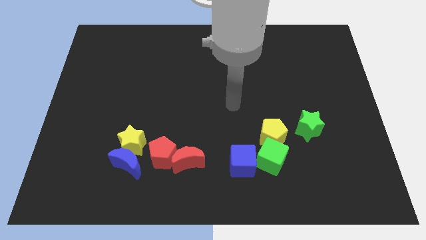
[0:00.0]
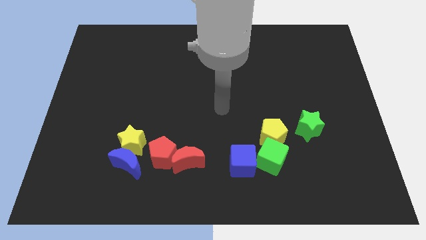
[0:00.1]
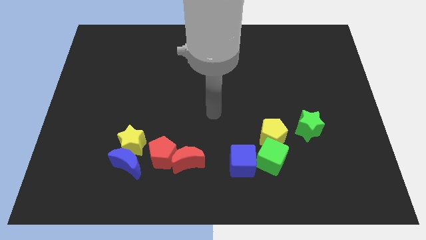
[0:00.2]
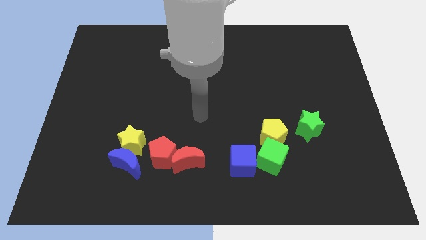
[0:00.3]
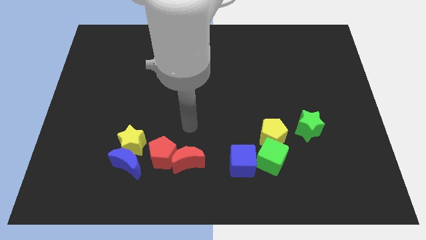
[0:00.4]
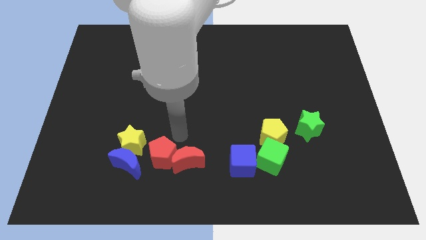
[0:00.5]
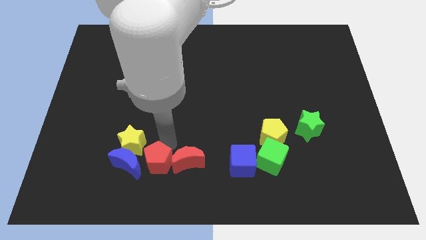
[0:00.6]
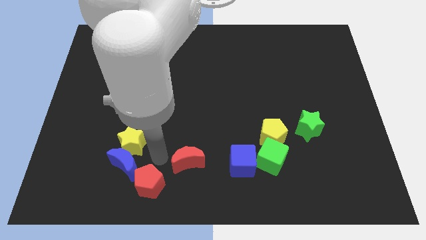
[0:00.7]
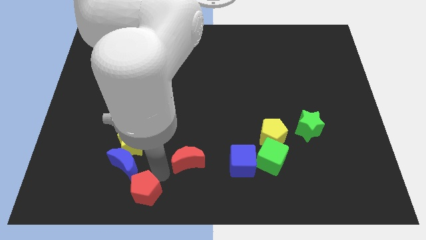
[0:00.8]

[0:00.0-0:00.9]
pull the red moon apart from the red pentagon

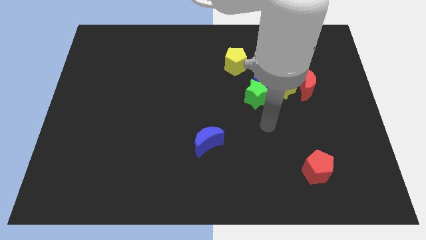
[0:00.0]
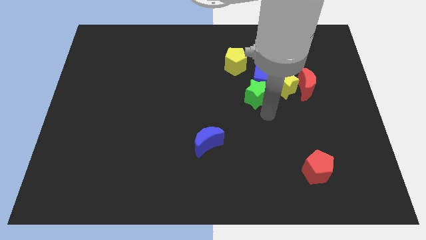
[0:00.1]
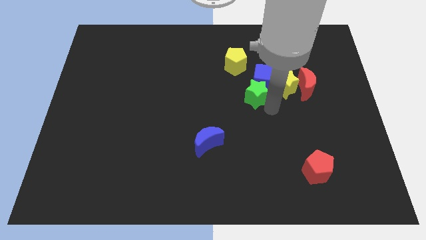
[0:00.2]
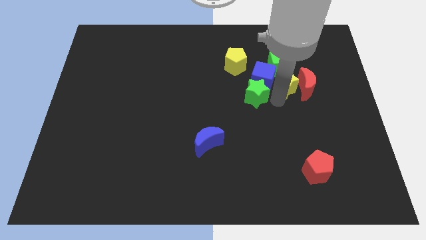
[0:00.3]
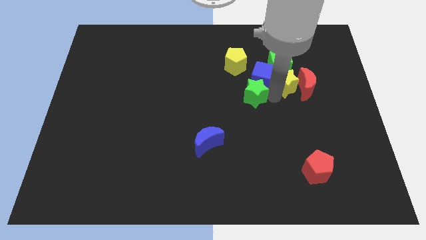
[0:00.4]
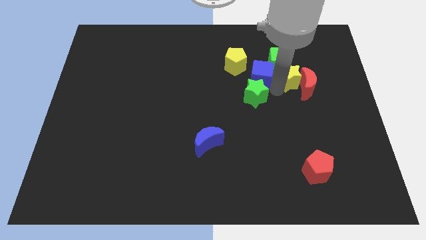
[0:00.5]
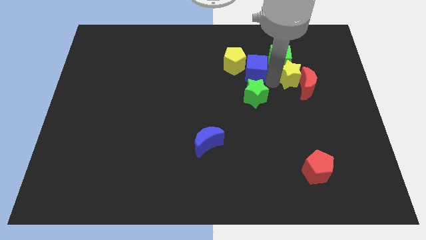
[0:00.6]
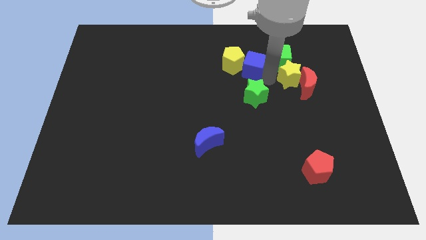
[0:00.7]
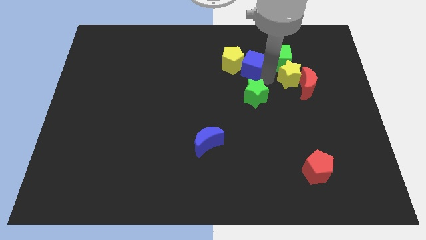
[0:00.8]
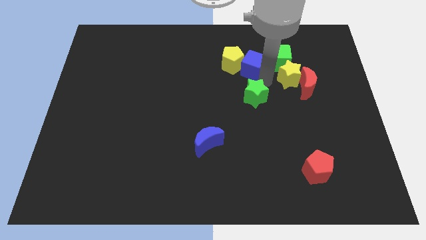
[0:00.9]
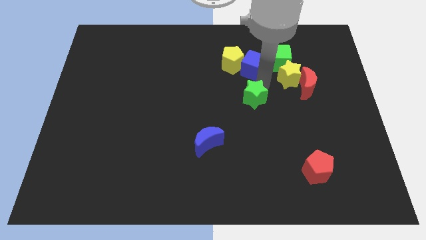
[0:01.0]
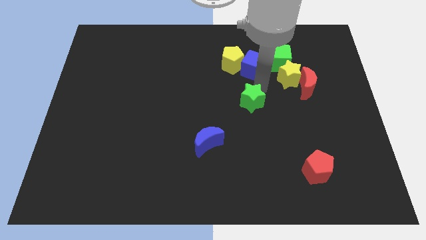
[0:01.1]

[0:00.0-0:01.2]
pull the green star apart from the blue cube and yellow star

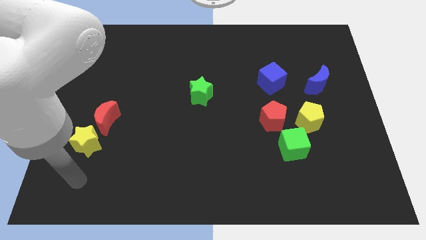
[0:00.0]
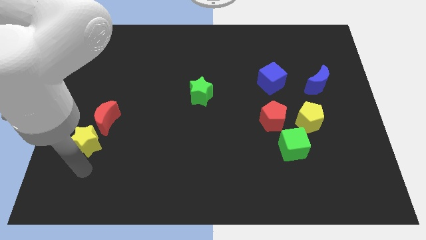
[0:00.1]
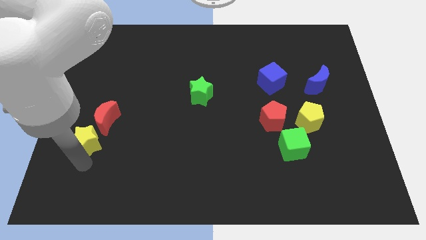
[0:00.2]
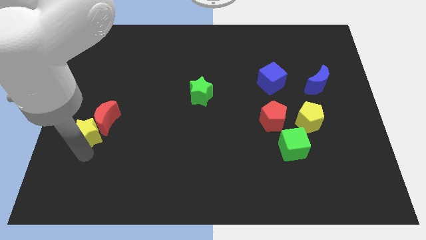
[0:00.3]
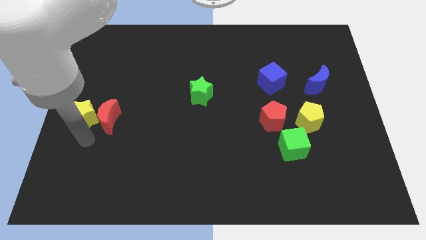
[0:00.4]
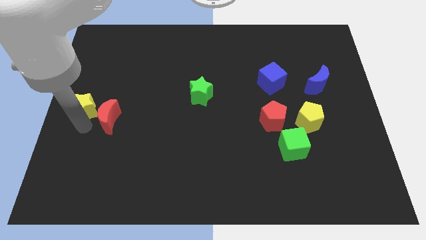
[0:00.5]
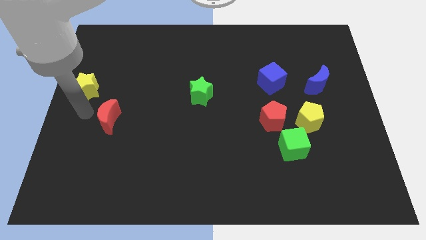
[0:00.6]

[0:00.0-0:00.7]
pull the red moon apart from the yellow star

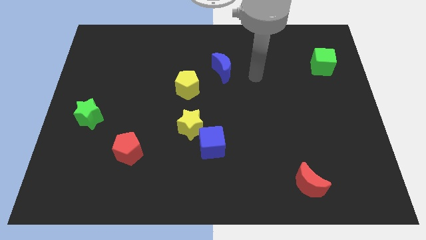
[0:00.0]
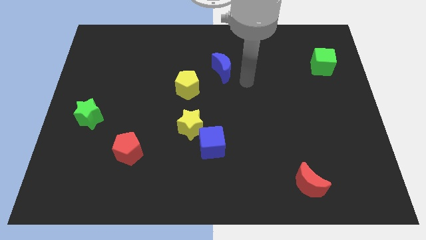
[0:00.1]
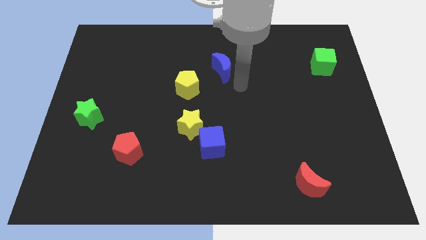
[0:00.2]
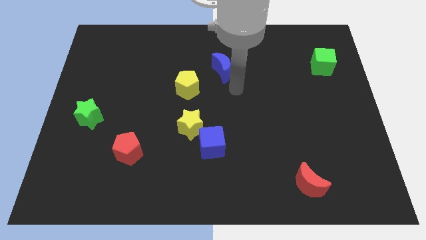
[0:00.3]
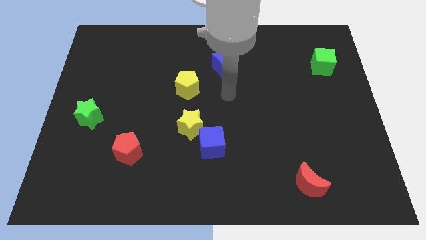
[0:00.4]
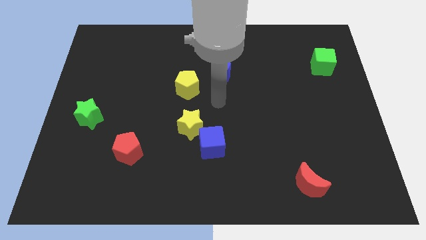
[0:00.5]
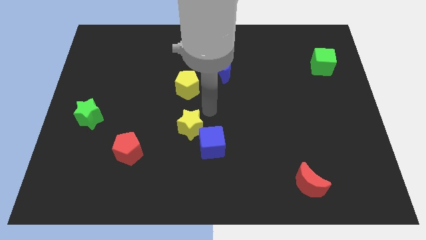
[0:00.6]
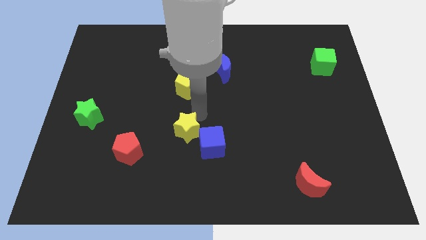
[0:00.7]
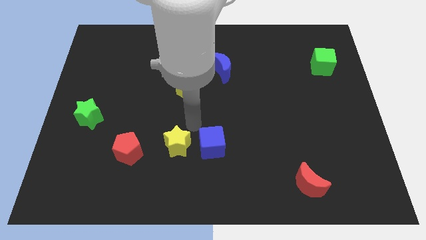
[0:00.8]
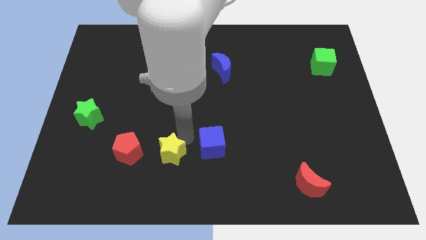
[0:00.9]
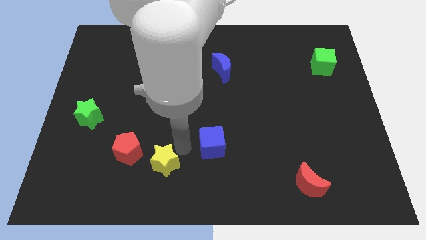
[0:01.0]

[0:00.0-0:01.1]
separate the blue cube from the yellow star

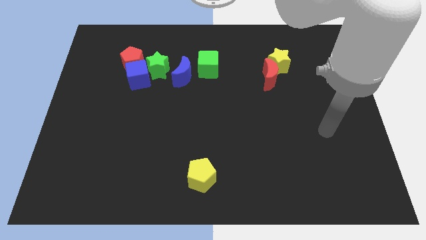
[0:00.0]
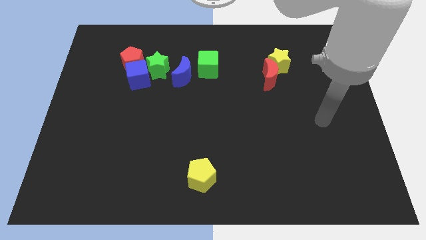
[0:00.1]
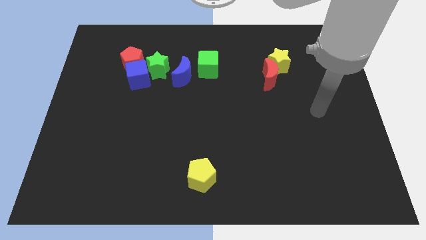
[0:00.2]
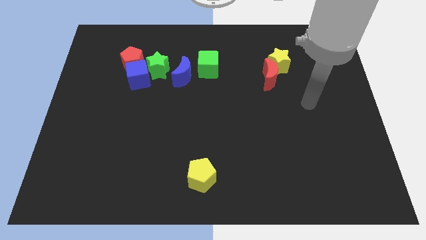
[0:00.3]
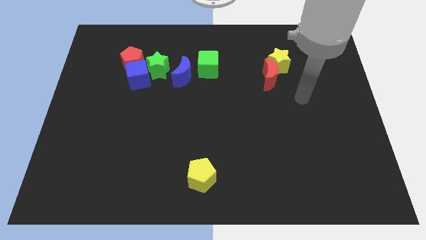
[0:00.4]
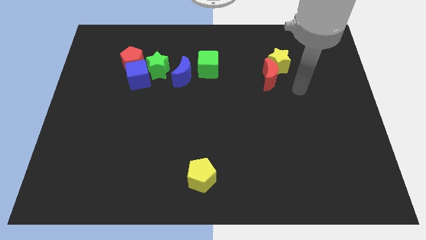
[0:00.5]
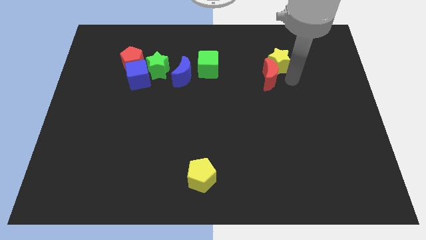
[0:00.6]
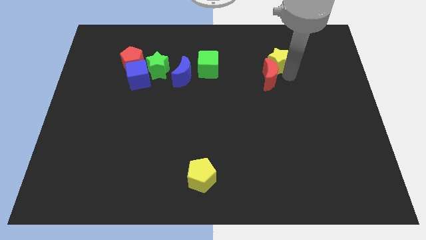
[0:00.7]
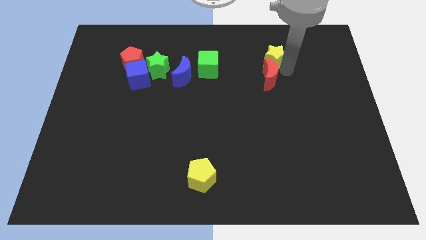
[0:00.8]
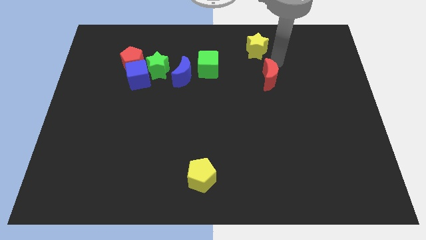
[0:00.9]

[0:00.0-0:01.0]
move the red moon away from the yellow star

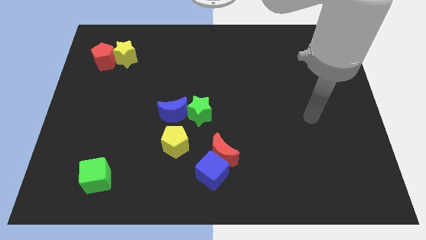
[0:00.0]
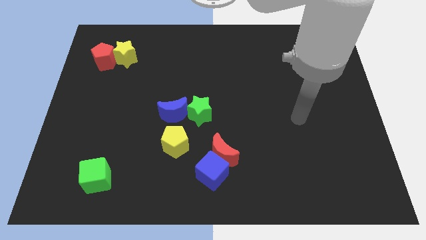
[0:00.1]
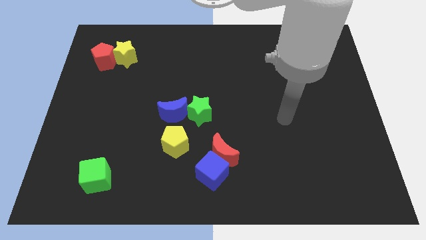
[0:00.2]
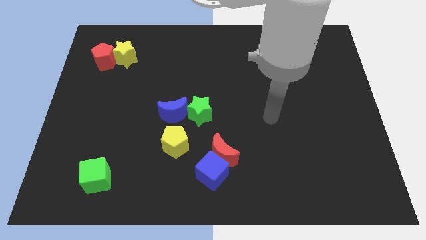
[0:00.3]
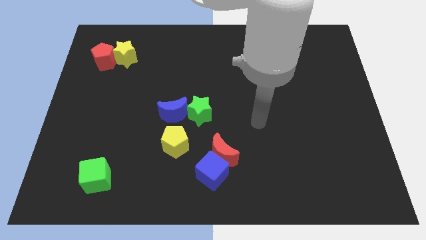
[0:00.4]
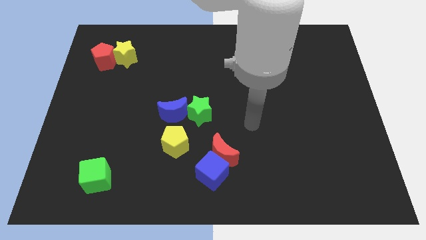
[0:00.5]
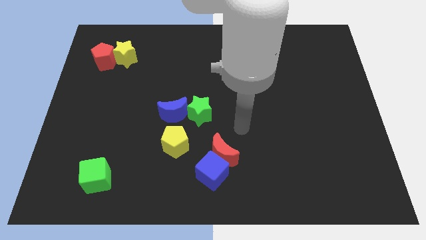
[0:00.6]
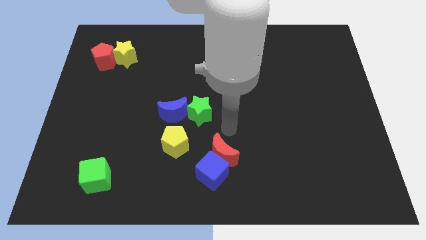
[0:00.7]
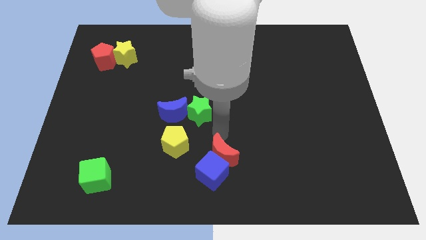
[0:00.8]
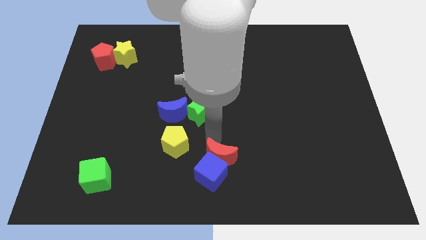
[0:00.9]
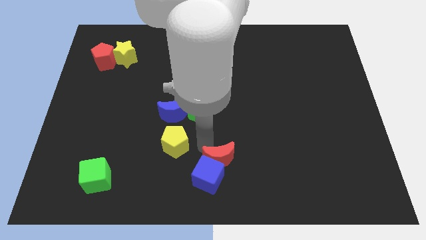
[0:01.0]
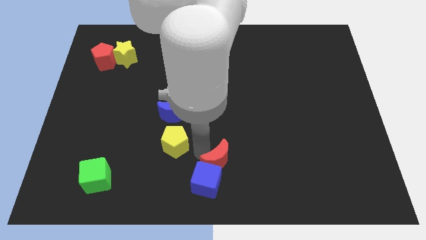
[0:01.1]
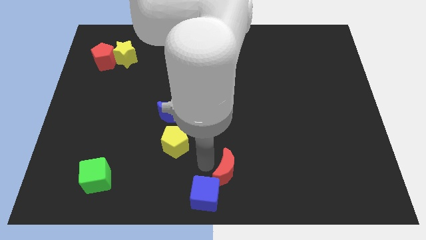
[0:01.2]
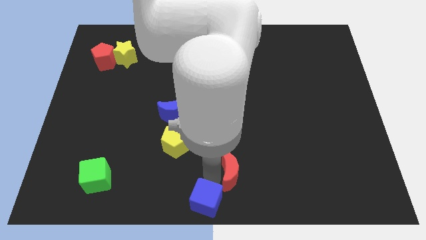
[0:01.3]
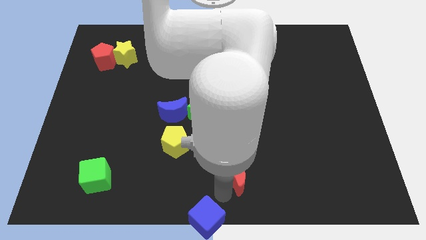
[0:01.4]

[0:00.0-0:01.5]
move the red moon away from the blue cube

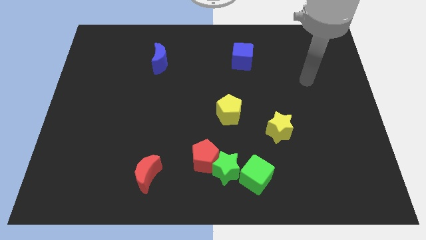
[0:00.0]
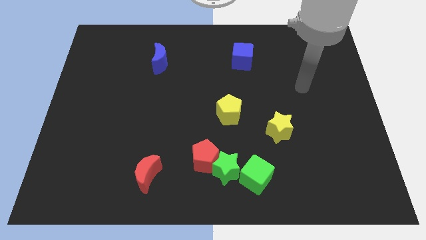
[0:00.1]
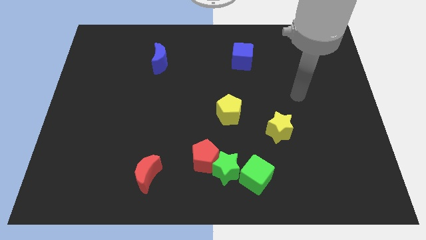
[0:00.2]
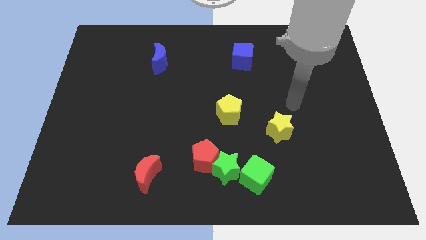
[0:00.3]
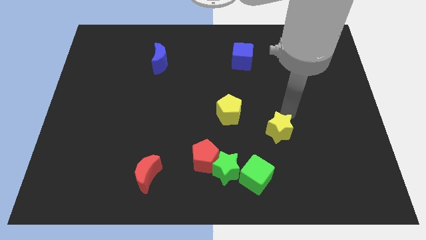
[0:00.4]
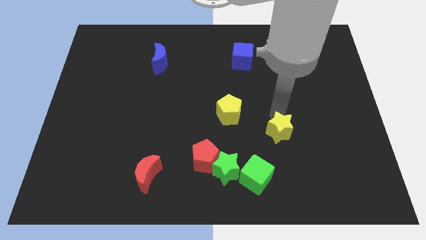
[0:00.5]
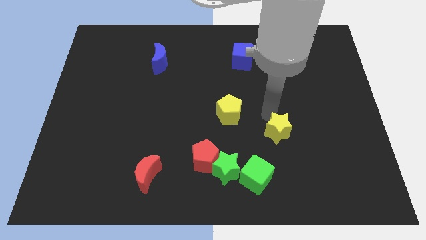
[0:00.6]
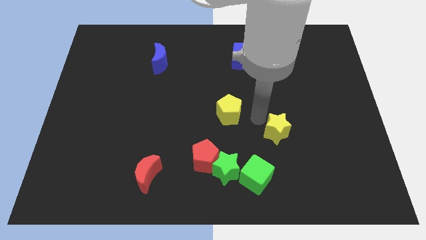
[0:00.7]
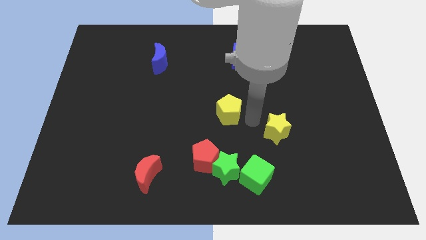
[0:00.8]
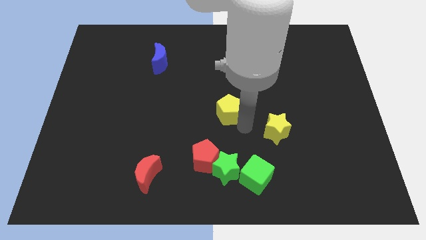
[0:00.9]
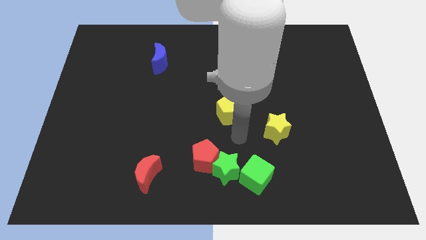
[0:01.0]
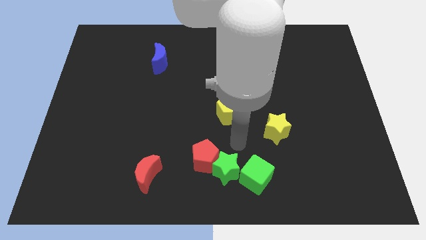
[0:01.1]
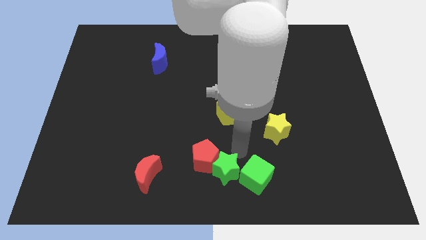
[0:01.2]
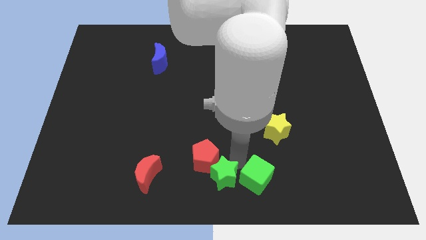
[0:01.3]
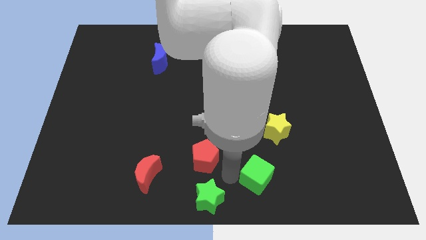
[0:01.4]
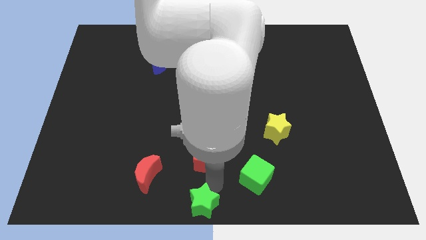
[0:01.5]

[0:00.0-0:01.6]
move the red pentagon away from the green star

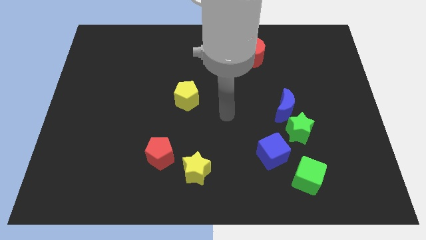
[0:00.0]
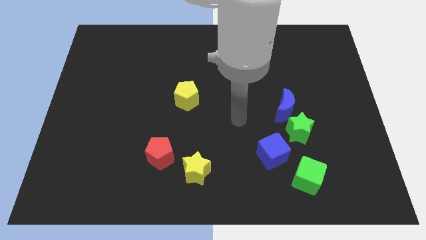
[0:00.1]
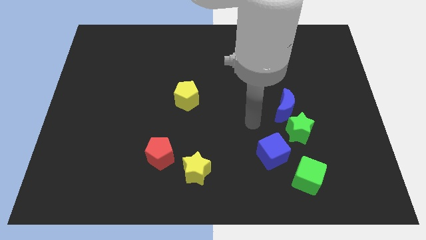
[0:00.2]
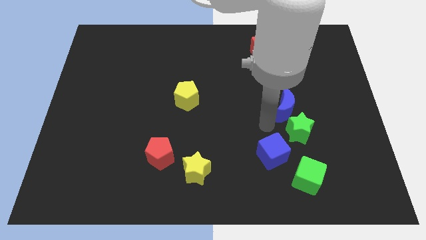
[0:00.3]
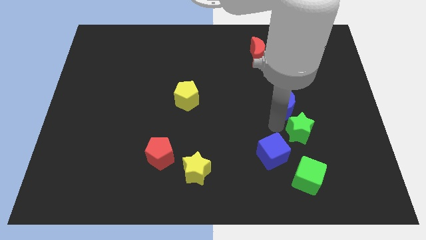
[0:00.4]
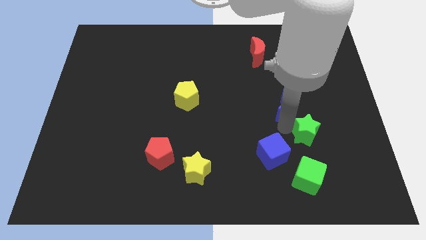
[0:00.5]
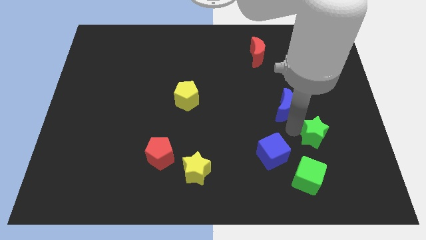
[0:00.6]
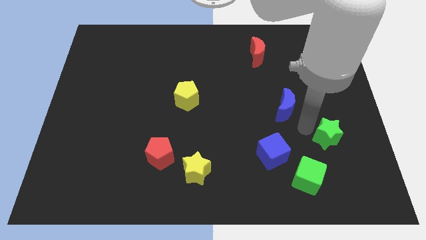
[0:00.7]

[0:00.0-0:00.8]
separate the blue moon from the green star

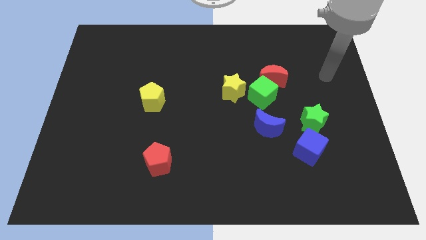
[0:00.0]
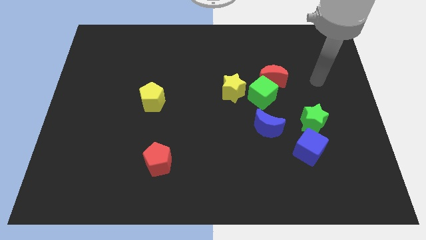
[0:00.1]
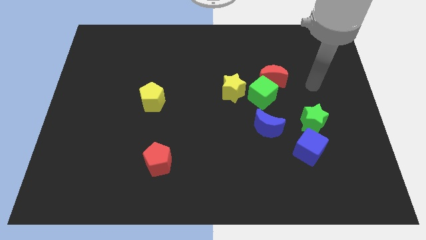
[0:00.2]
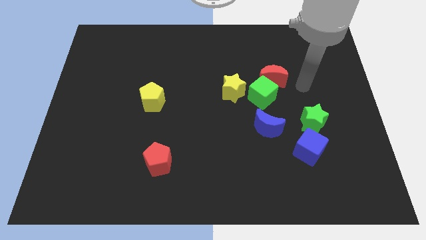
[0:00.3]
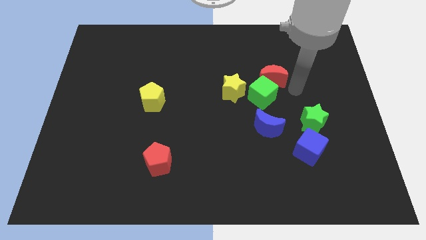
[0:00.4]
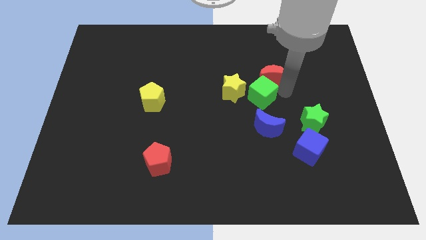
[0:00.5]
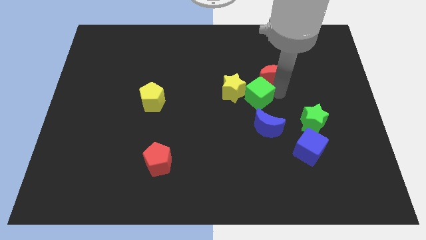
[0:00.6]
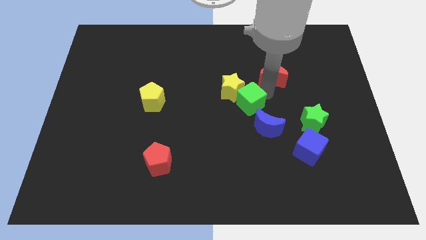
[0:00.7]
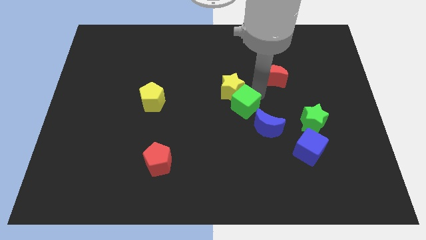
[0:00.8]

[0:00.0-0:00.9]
move the red moon away from the green cube
